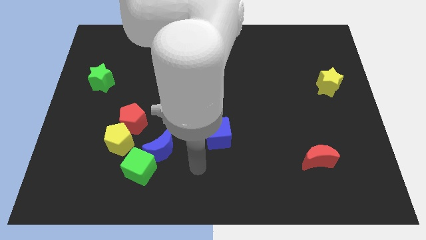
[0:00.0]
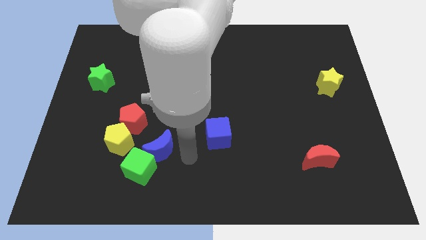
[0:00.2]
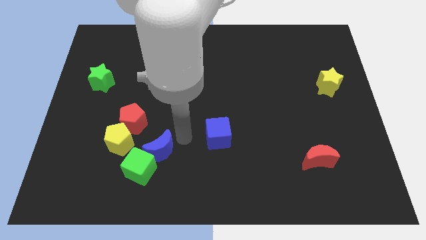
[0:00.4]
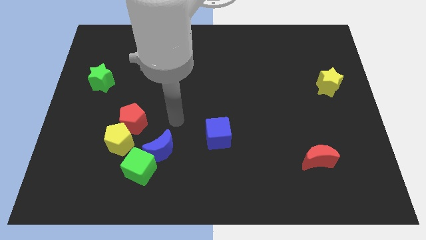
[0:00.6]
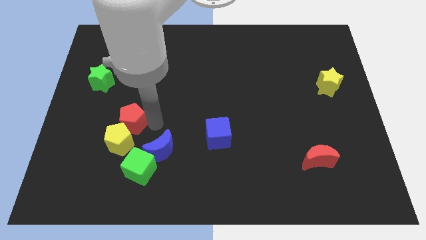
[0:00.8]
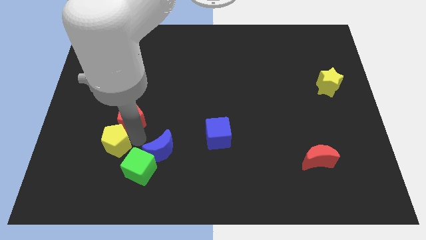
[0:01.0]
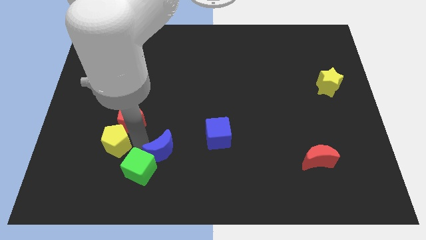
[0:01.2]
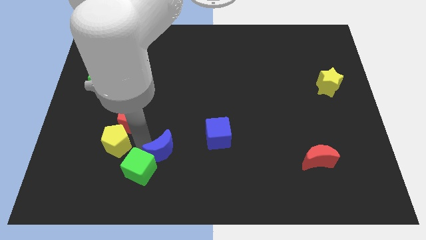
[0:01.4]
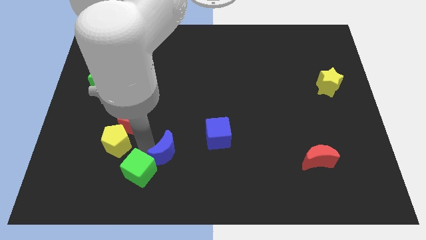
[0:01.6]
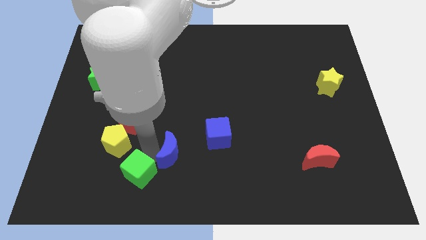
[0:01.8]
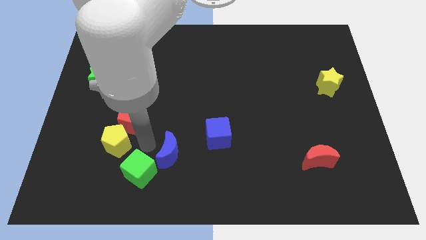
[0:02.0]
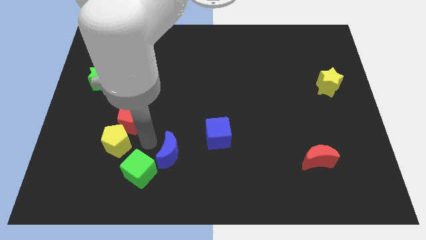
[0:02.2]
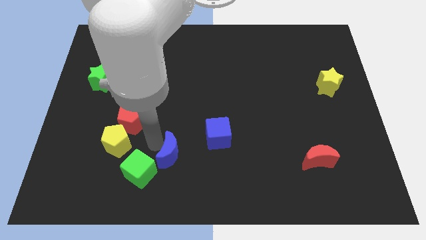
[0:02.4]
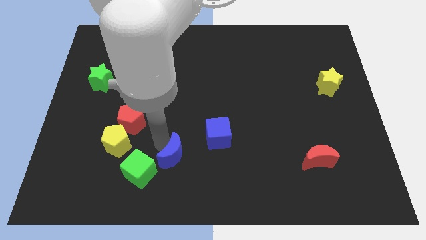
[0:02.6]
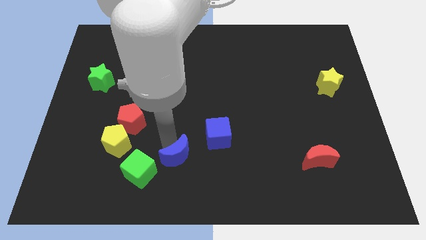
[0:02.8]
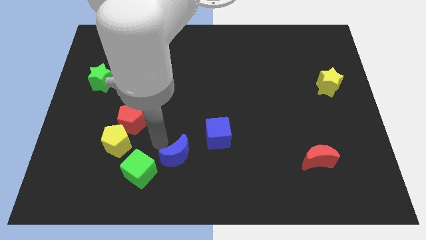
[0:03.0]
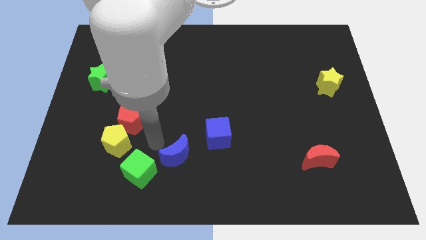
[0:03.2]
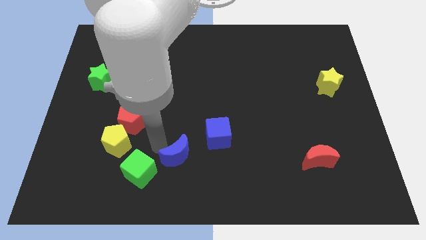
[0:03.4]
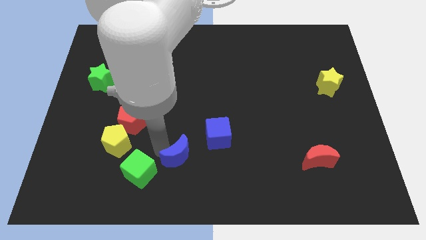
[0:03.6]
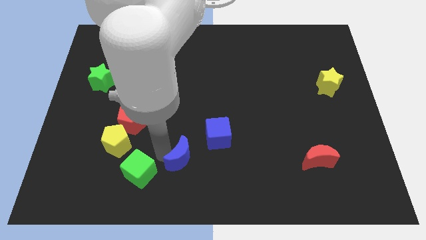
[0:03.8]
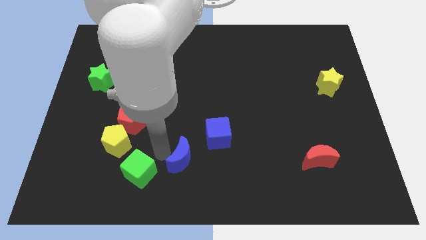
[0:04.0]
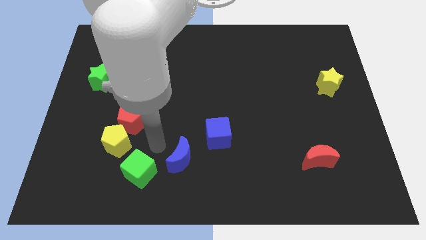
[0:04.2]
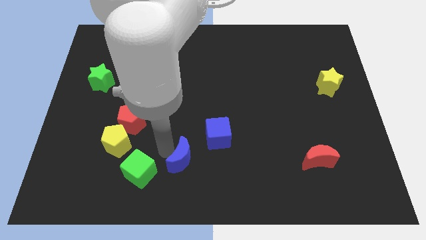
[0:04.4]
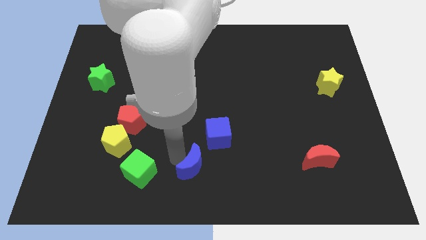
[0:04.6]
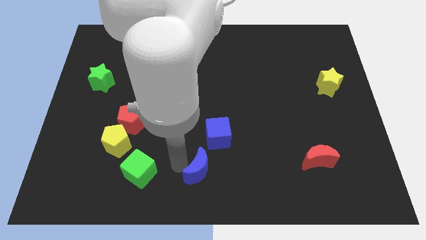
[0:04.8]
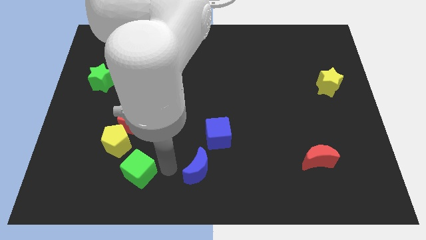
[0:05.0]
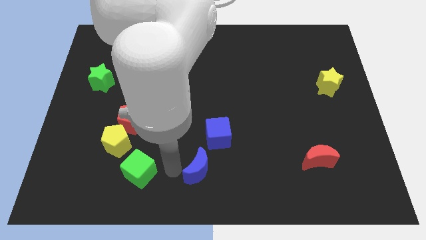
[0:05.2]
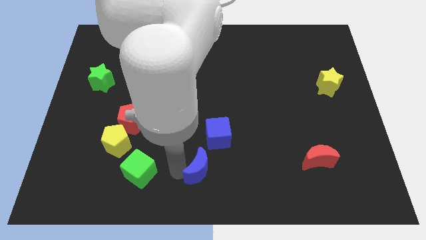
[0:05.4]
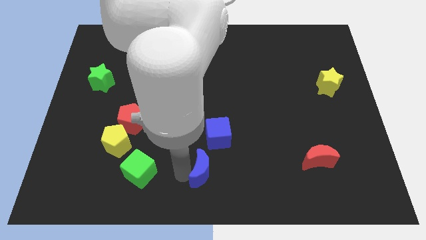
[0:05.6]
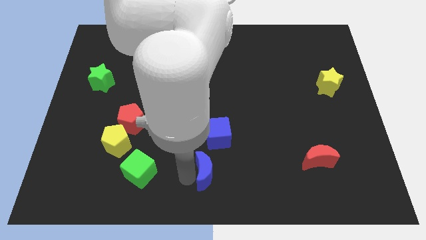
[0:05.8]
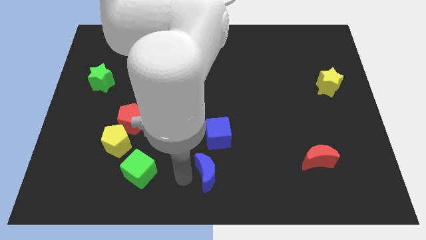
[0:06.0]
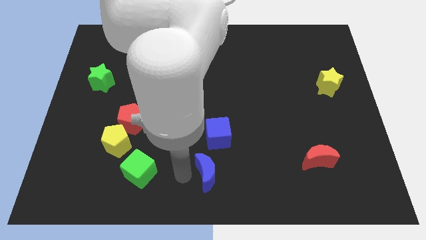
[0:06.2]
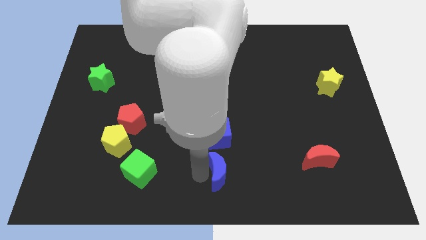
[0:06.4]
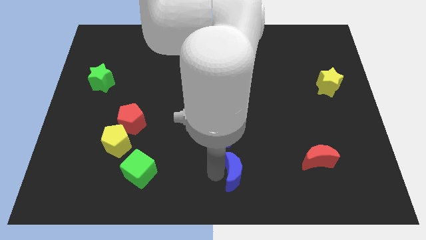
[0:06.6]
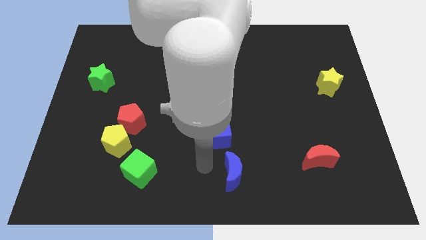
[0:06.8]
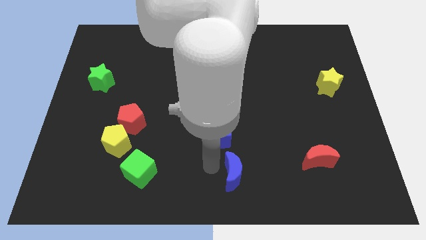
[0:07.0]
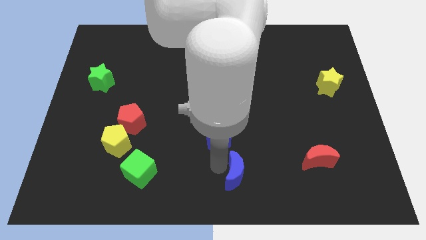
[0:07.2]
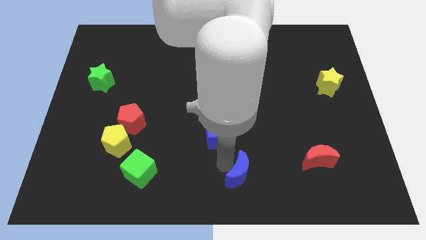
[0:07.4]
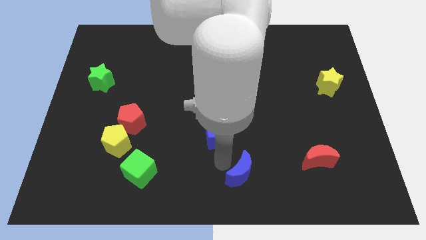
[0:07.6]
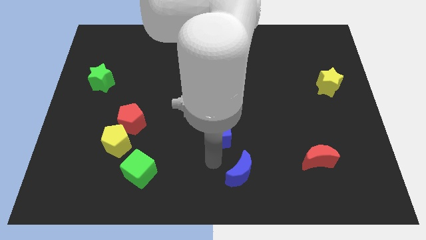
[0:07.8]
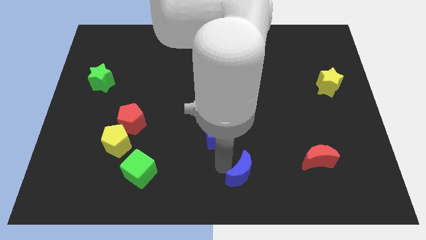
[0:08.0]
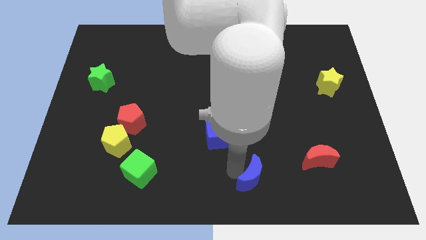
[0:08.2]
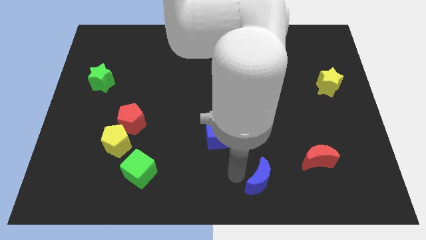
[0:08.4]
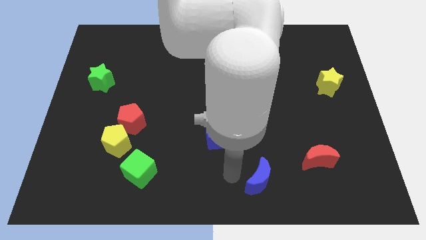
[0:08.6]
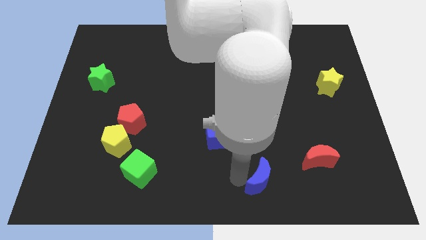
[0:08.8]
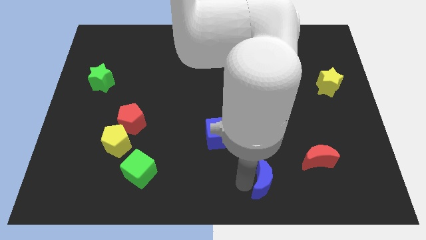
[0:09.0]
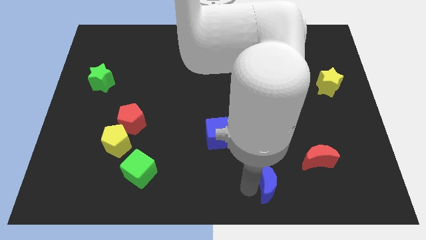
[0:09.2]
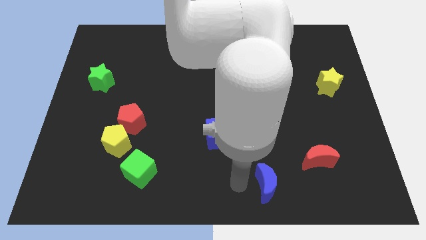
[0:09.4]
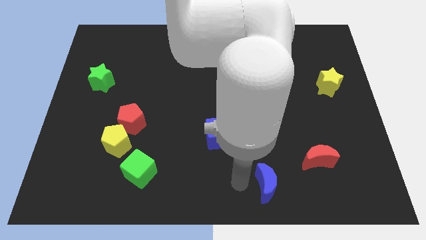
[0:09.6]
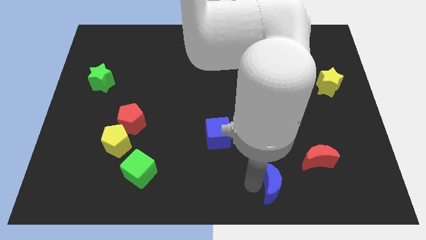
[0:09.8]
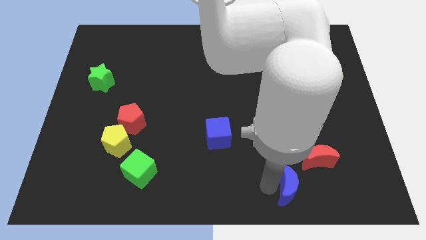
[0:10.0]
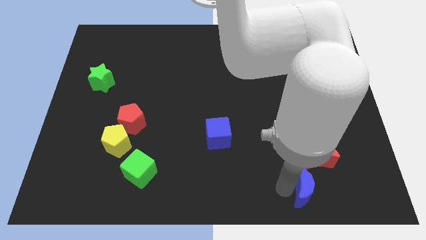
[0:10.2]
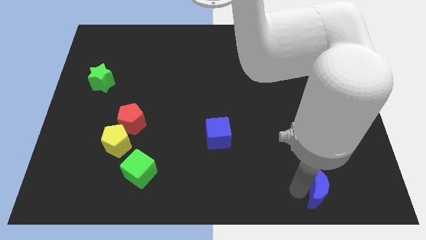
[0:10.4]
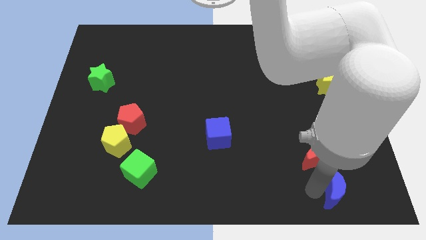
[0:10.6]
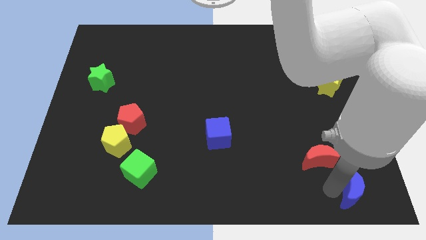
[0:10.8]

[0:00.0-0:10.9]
move the blue moon to the bottom right of the board

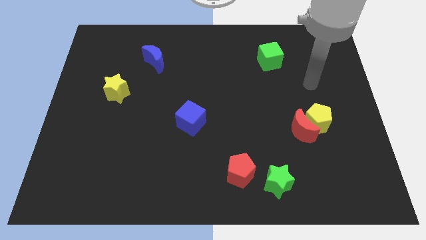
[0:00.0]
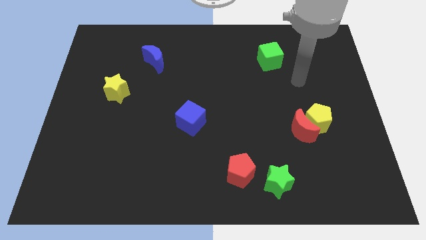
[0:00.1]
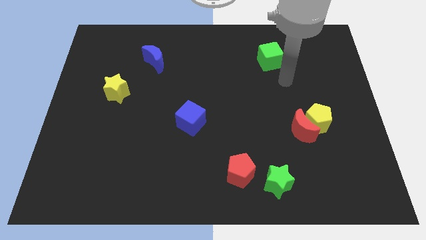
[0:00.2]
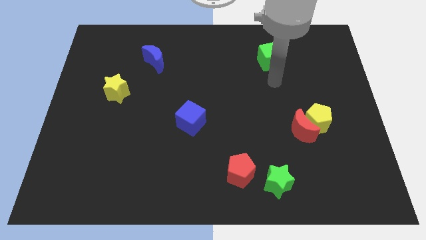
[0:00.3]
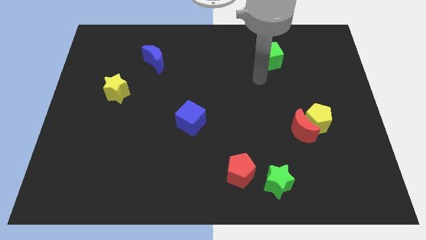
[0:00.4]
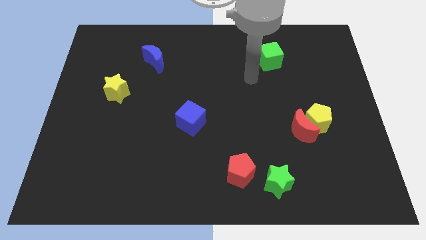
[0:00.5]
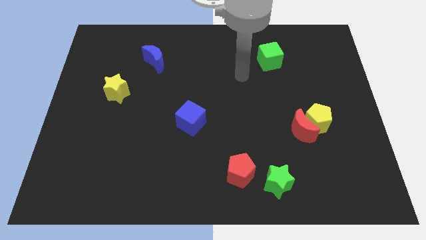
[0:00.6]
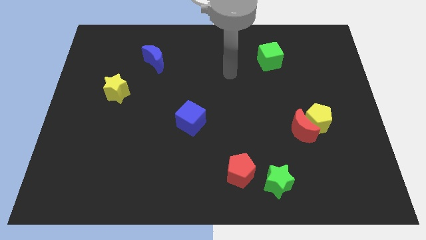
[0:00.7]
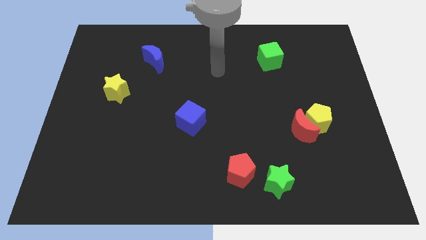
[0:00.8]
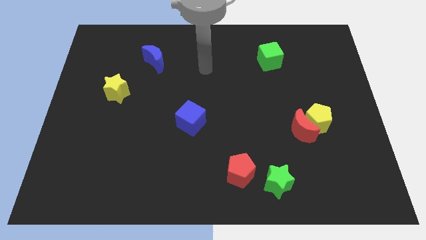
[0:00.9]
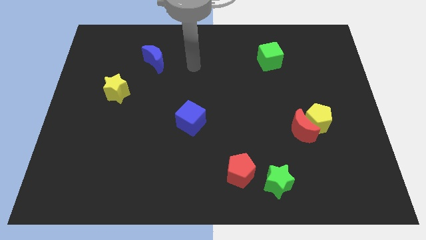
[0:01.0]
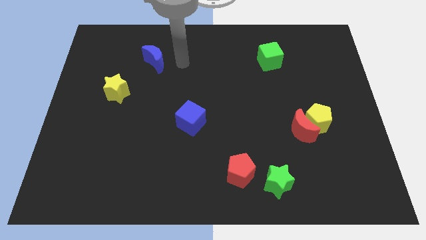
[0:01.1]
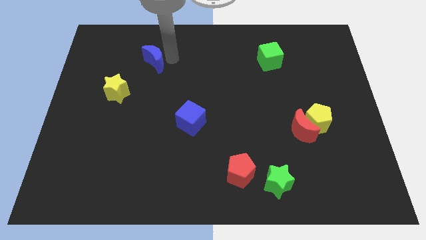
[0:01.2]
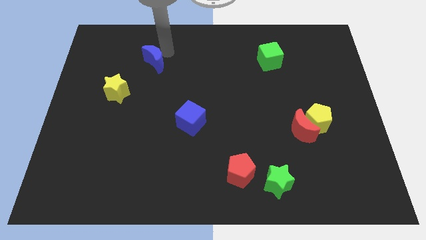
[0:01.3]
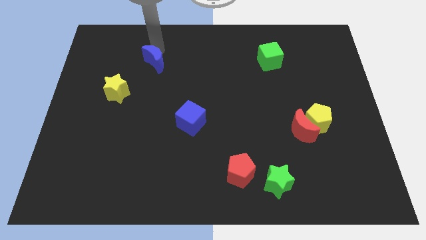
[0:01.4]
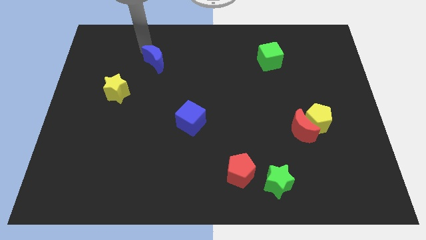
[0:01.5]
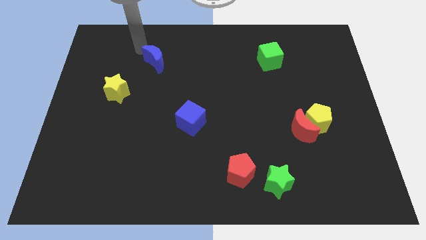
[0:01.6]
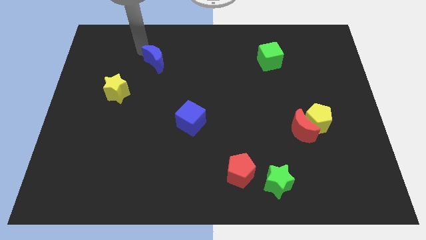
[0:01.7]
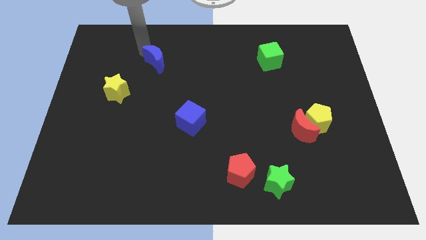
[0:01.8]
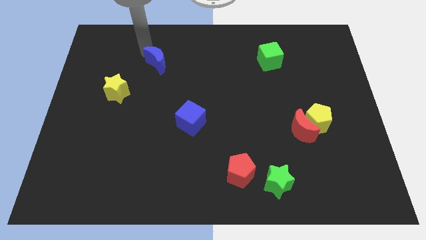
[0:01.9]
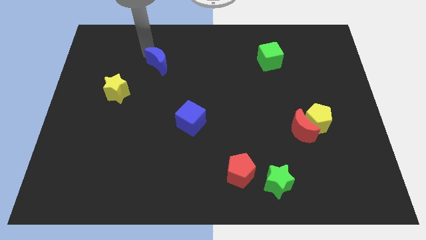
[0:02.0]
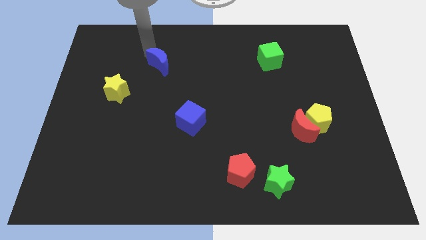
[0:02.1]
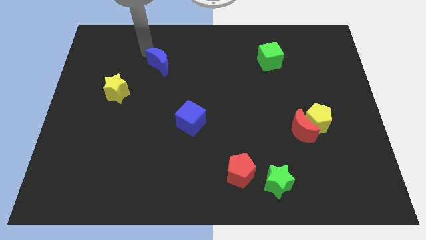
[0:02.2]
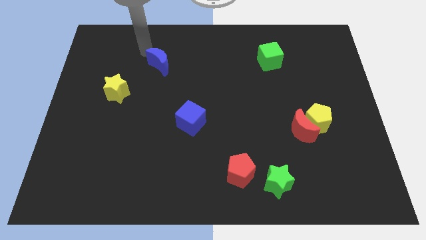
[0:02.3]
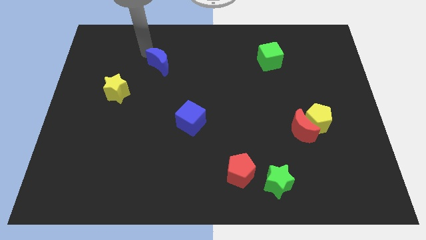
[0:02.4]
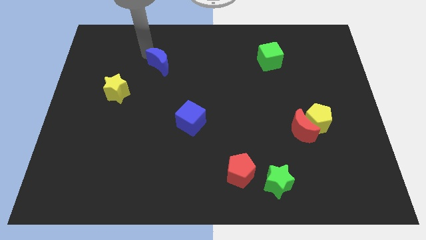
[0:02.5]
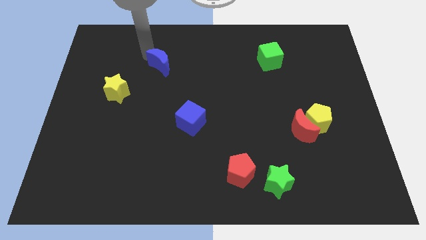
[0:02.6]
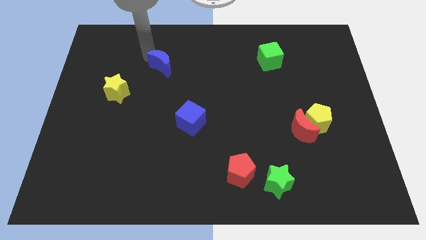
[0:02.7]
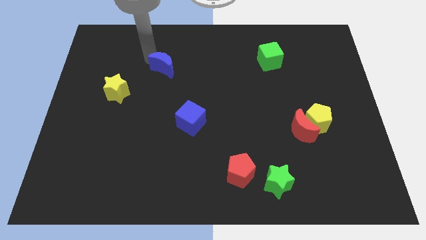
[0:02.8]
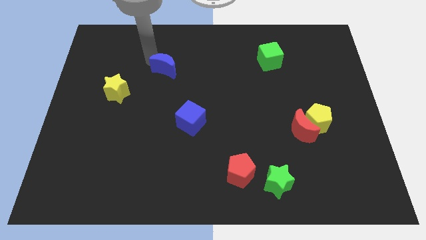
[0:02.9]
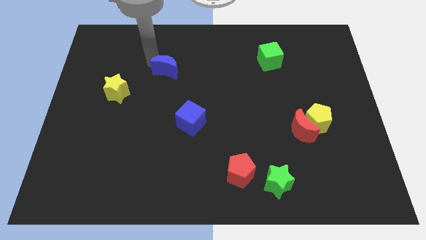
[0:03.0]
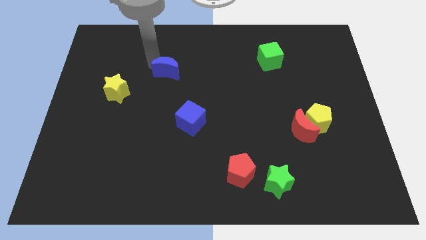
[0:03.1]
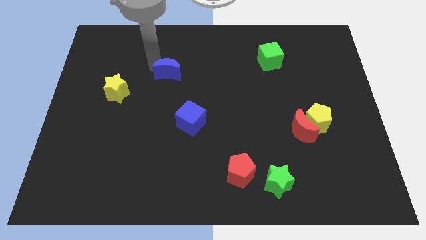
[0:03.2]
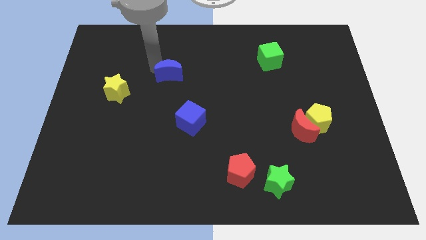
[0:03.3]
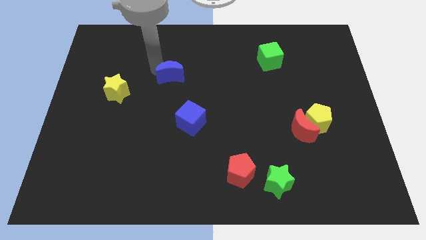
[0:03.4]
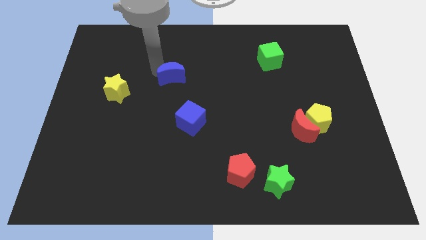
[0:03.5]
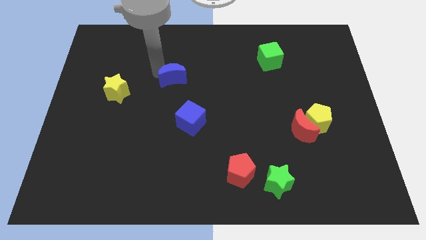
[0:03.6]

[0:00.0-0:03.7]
slide the blue moon to the center
